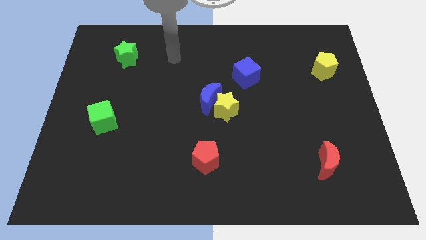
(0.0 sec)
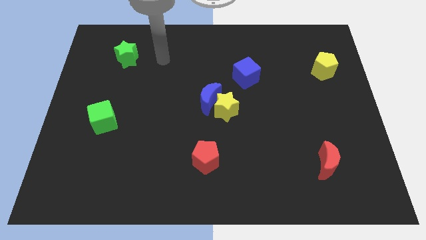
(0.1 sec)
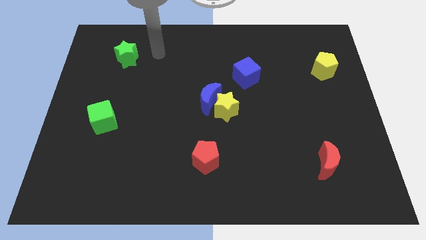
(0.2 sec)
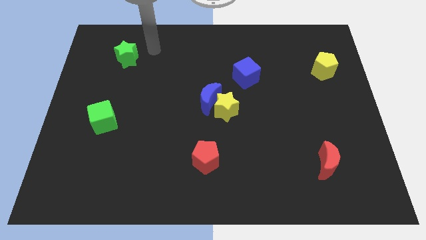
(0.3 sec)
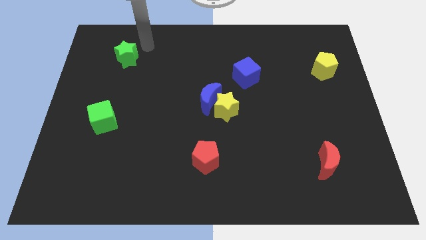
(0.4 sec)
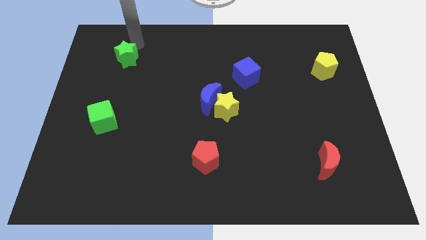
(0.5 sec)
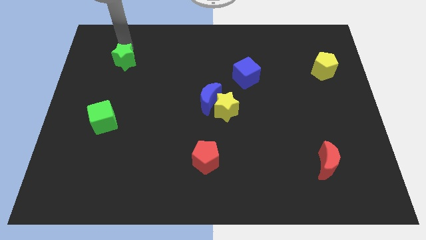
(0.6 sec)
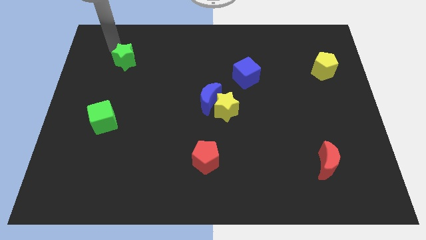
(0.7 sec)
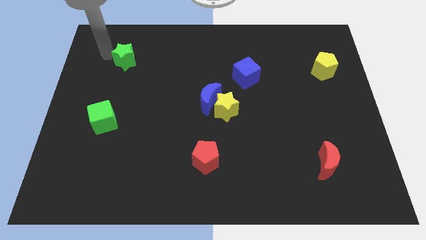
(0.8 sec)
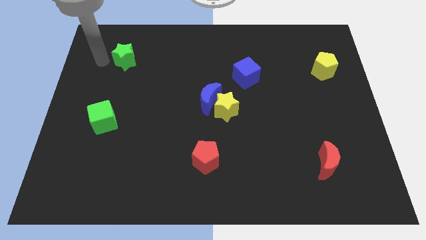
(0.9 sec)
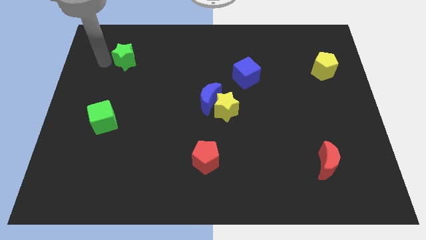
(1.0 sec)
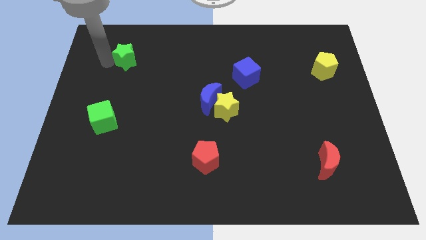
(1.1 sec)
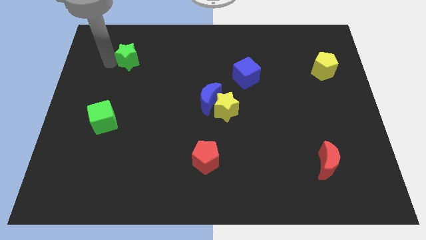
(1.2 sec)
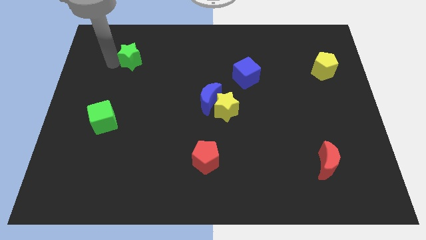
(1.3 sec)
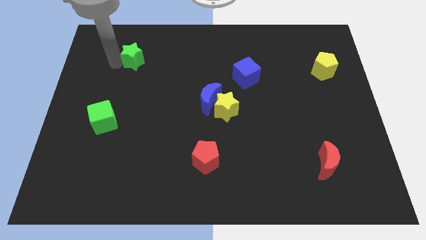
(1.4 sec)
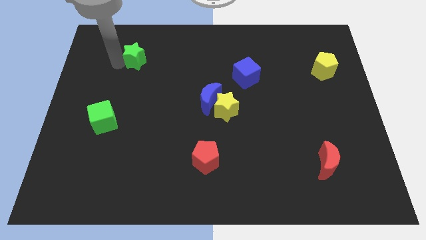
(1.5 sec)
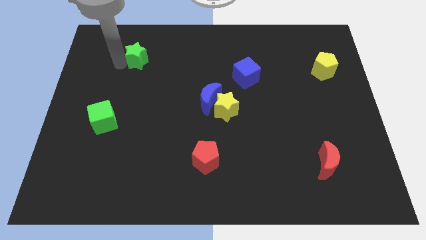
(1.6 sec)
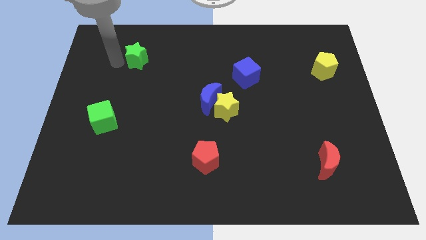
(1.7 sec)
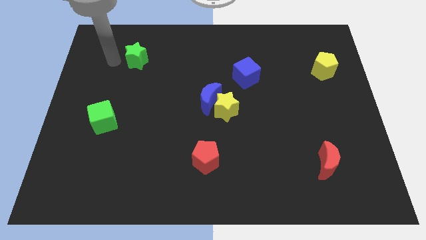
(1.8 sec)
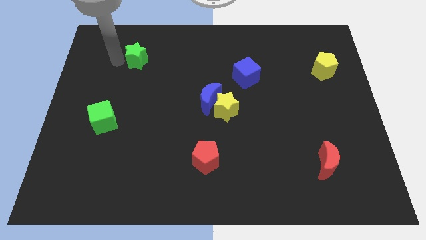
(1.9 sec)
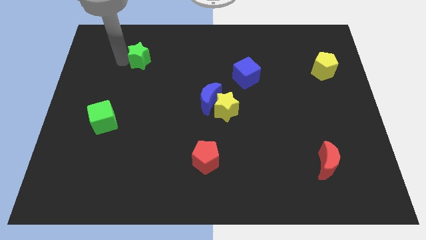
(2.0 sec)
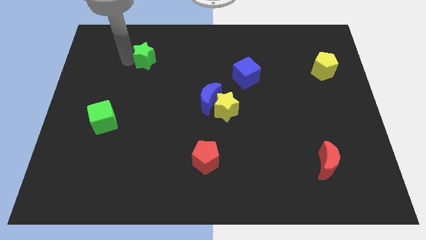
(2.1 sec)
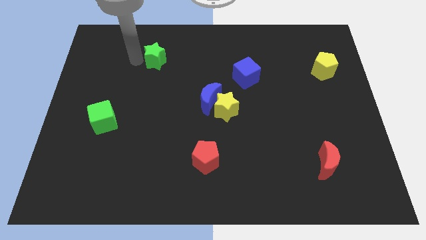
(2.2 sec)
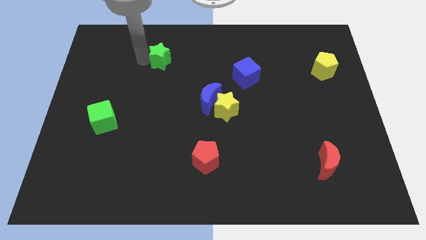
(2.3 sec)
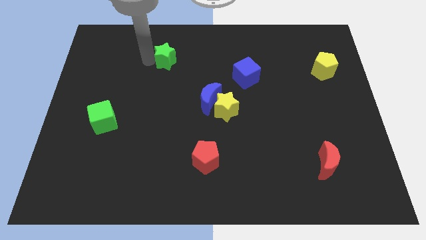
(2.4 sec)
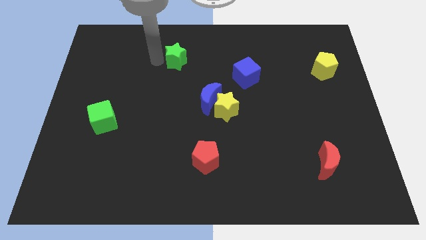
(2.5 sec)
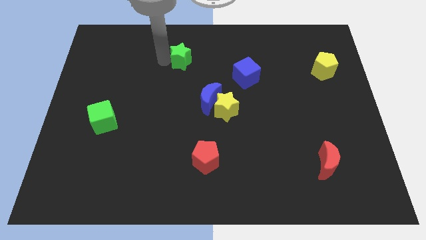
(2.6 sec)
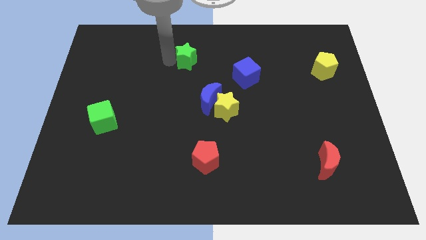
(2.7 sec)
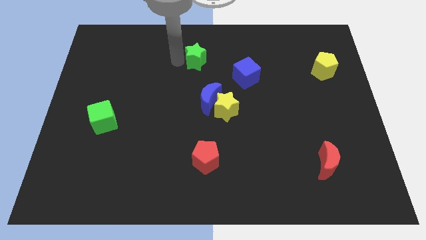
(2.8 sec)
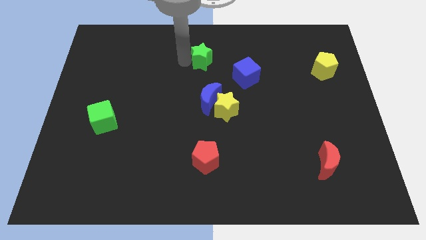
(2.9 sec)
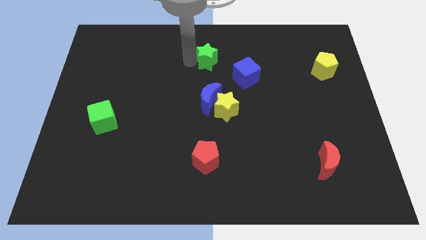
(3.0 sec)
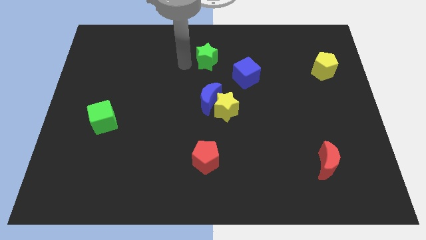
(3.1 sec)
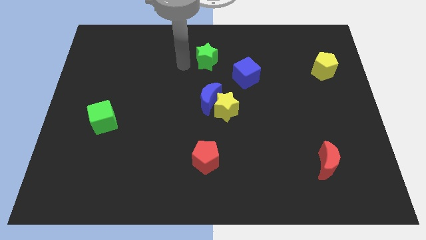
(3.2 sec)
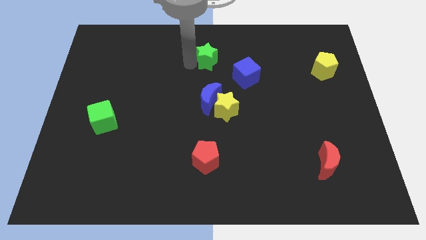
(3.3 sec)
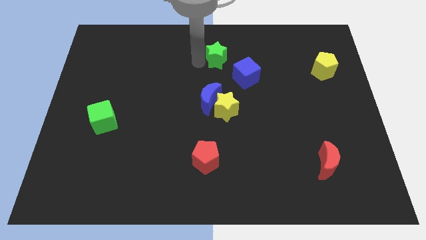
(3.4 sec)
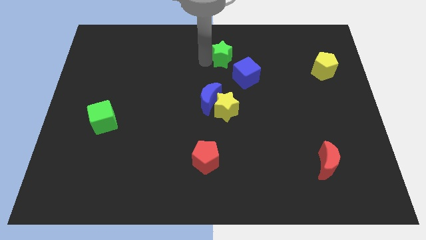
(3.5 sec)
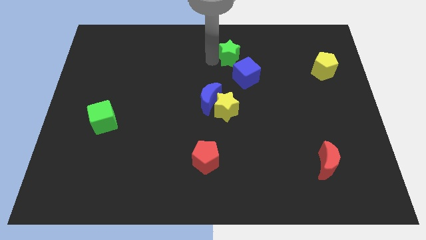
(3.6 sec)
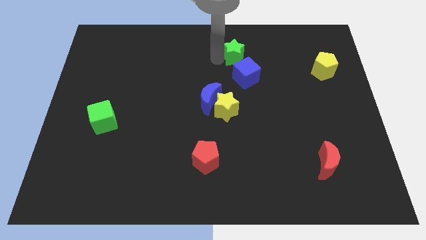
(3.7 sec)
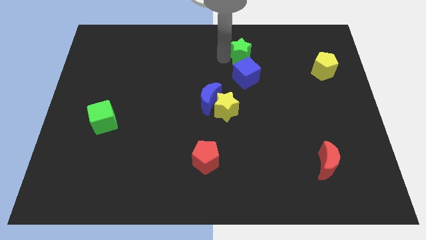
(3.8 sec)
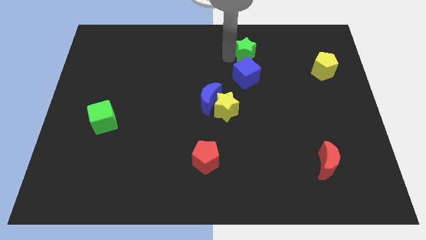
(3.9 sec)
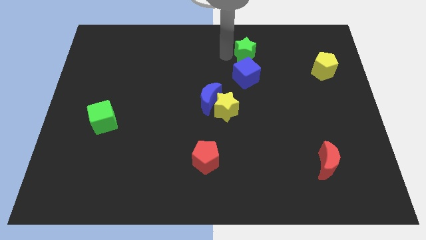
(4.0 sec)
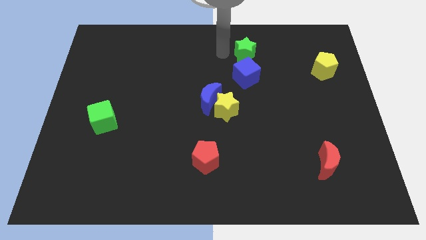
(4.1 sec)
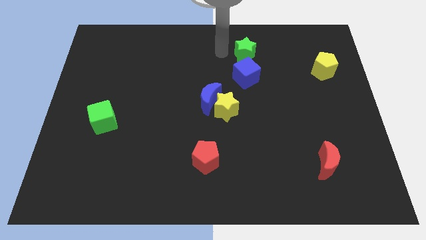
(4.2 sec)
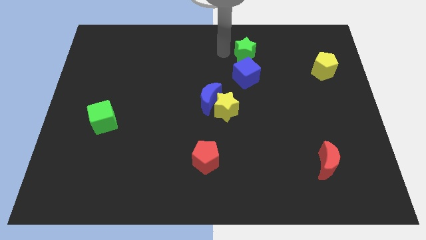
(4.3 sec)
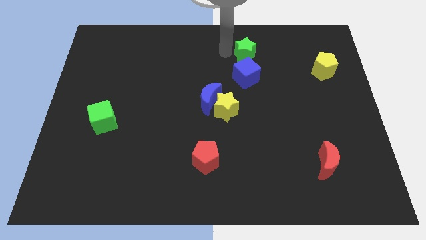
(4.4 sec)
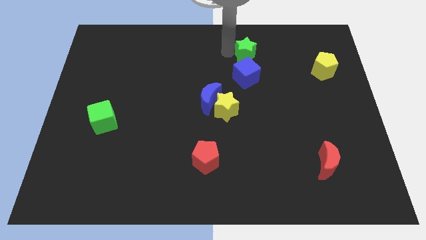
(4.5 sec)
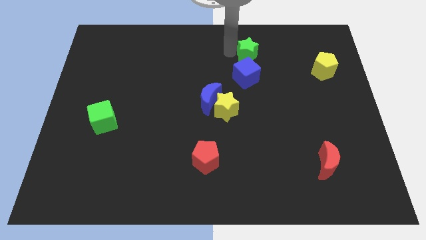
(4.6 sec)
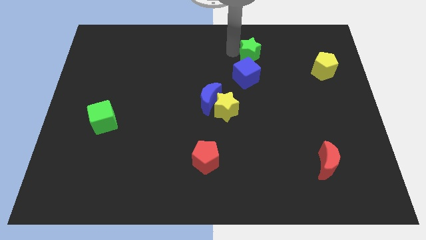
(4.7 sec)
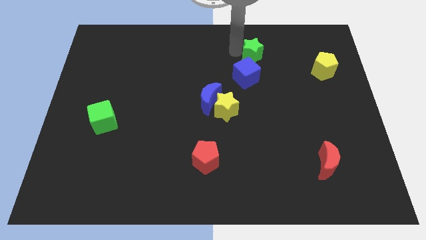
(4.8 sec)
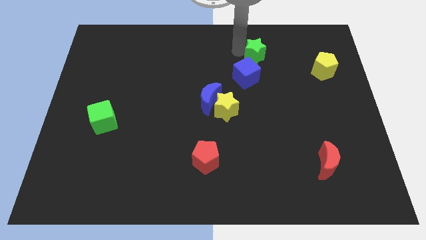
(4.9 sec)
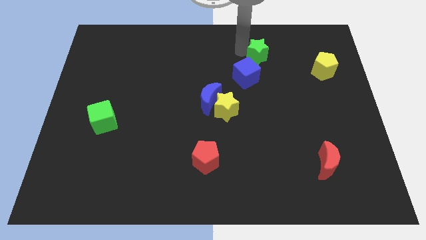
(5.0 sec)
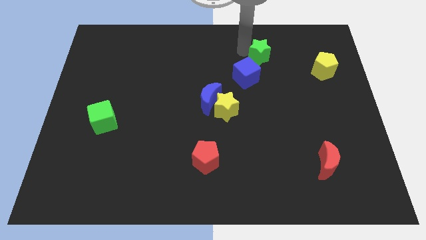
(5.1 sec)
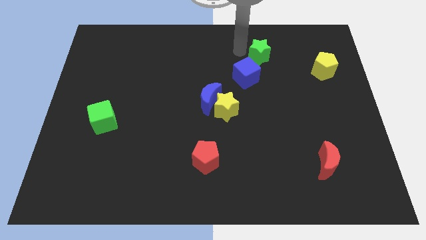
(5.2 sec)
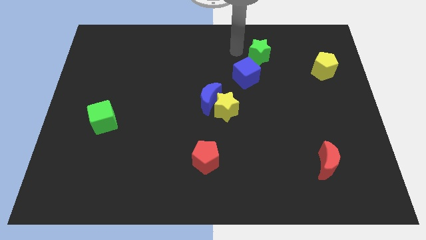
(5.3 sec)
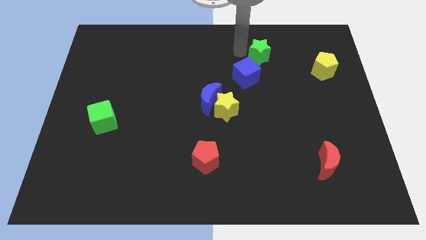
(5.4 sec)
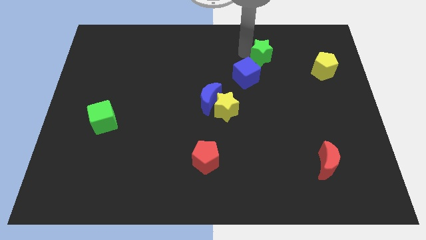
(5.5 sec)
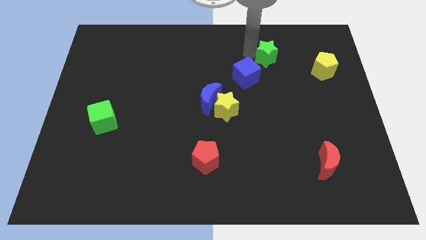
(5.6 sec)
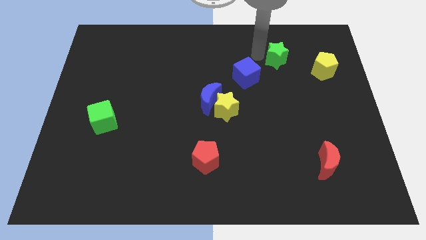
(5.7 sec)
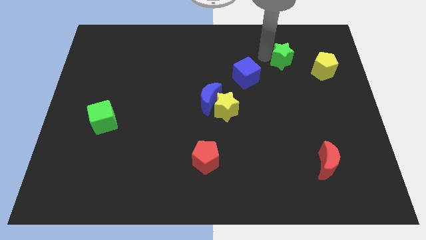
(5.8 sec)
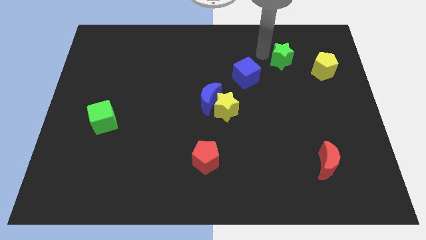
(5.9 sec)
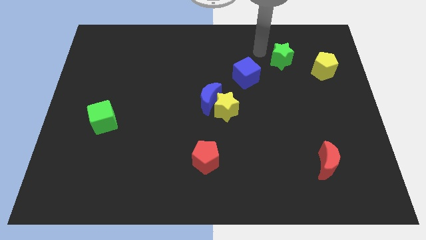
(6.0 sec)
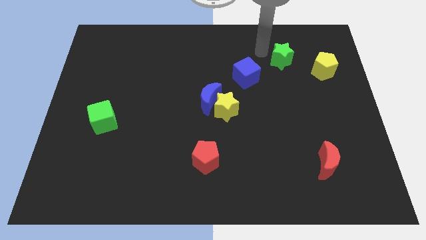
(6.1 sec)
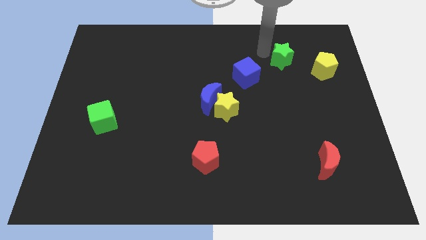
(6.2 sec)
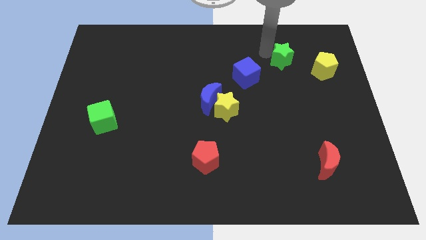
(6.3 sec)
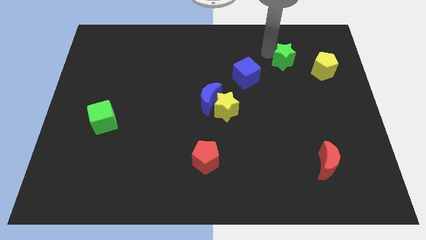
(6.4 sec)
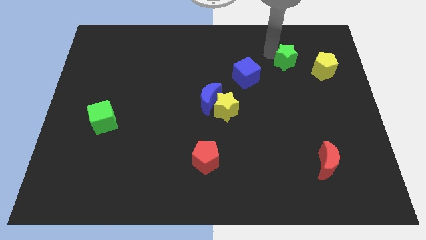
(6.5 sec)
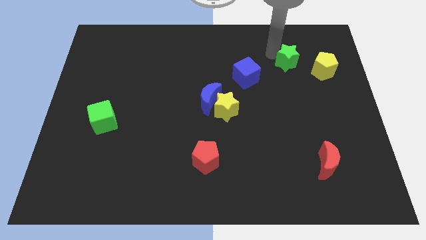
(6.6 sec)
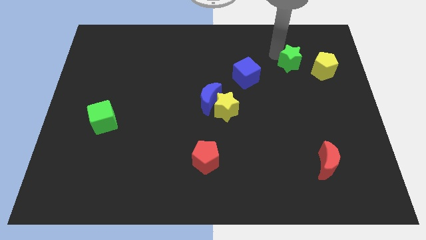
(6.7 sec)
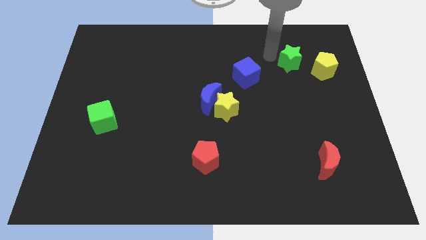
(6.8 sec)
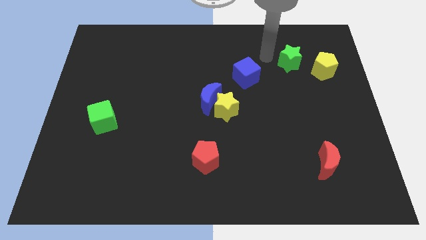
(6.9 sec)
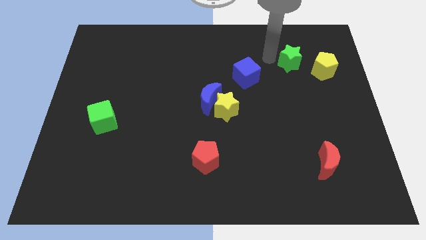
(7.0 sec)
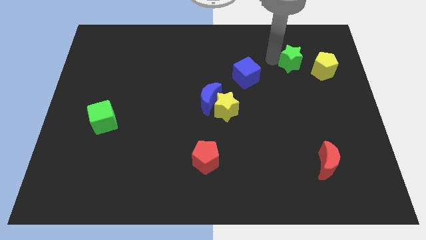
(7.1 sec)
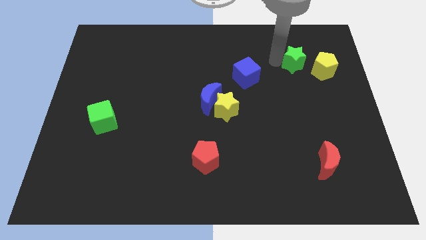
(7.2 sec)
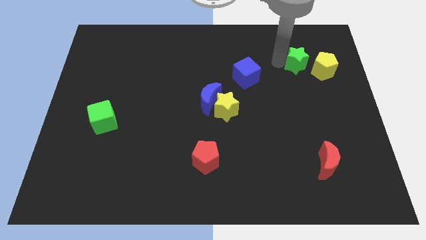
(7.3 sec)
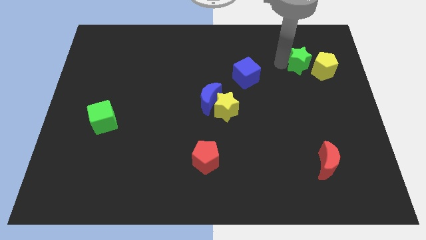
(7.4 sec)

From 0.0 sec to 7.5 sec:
push the green star close to the yellow pentagon

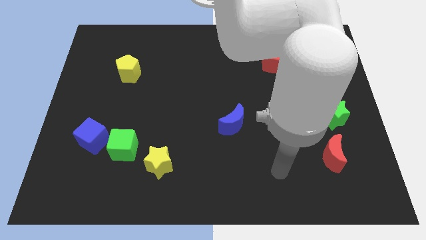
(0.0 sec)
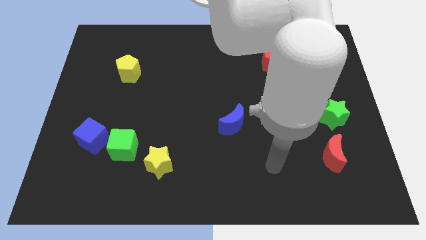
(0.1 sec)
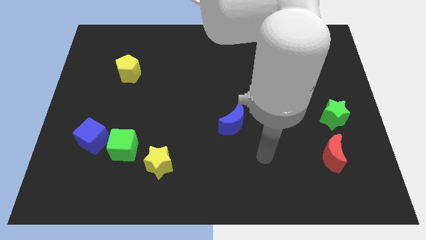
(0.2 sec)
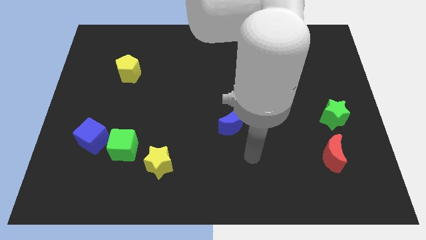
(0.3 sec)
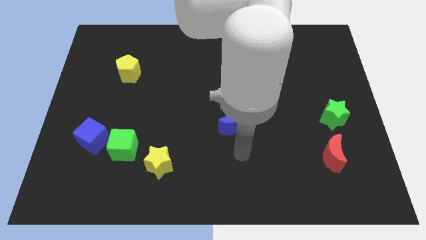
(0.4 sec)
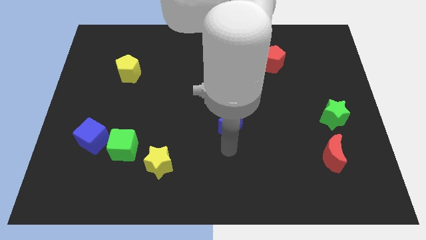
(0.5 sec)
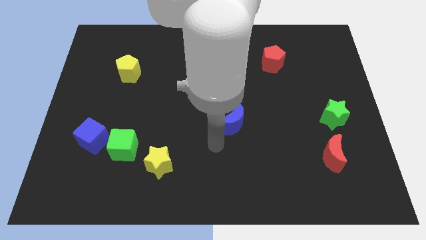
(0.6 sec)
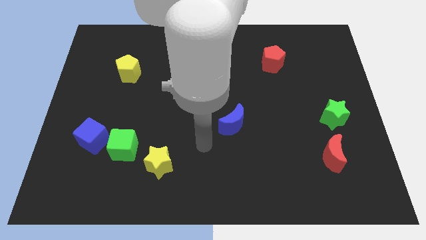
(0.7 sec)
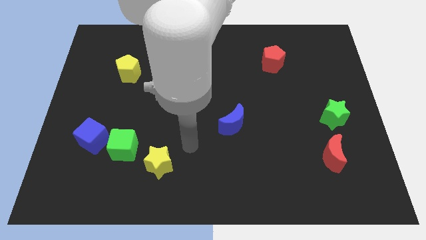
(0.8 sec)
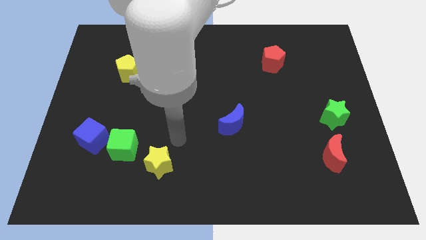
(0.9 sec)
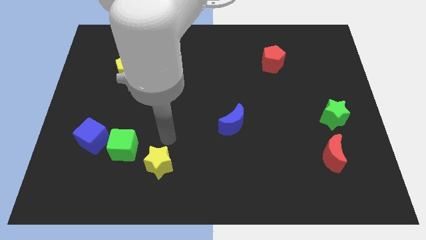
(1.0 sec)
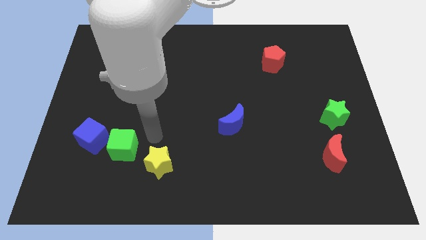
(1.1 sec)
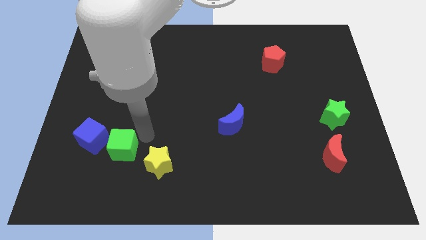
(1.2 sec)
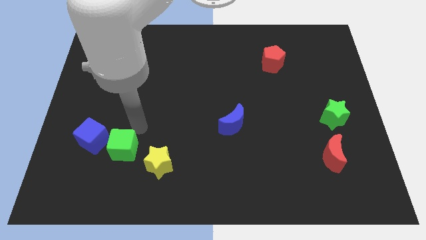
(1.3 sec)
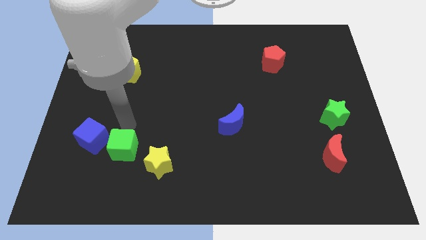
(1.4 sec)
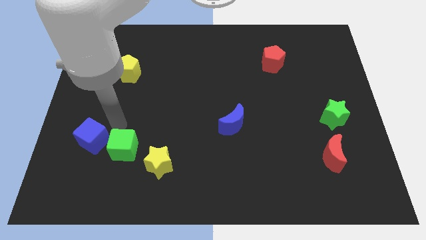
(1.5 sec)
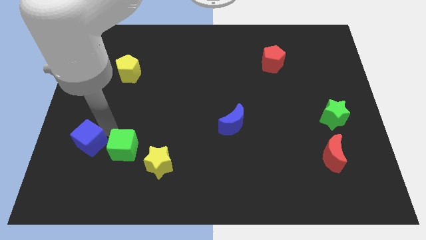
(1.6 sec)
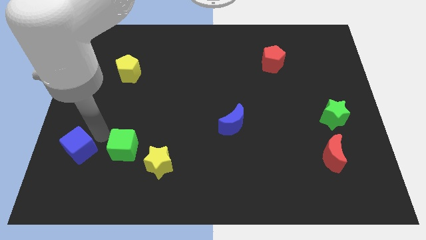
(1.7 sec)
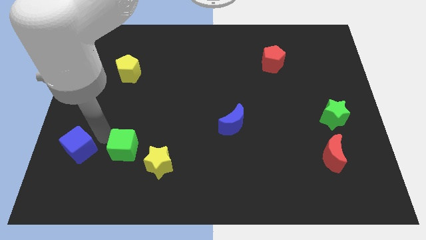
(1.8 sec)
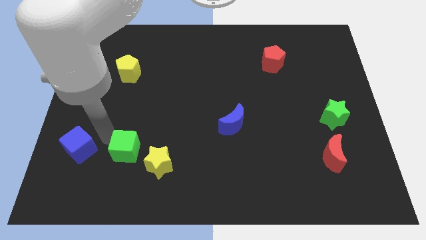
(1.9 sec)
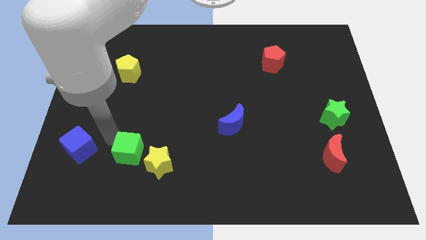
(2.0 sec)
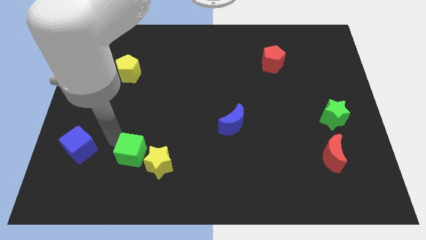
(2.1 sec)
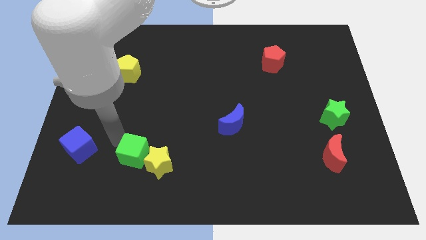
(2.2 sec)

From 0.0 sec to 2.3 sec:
put the green cube close to the yellow star
